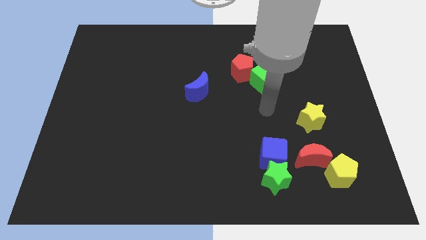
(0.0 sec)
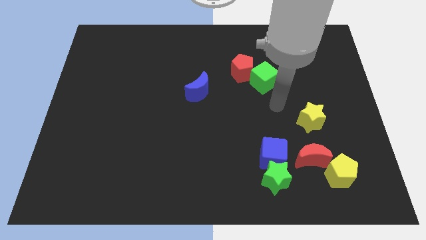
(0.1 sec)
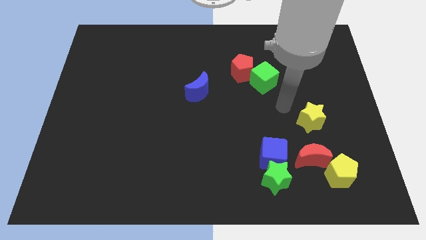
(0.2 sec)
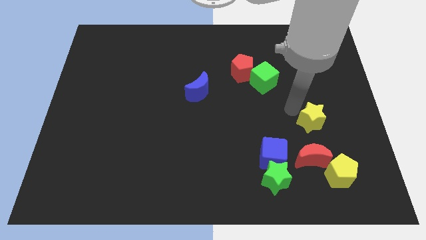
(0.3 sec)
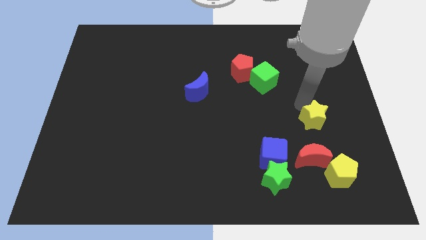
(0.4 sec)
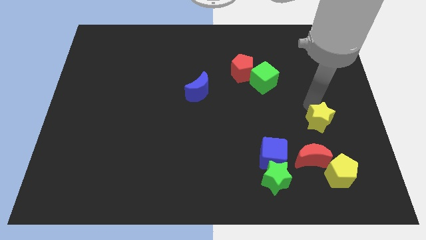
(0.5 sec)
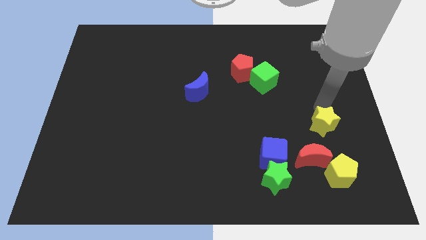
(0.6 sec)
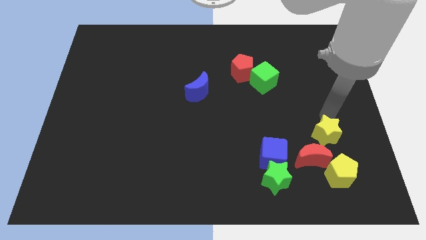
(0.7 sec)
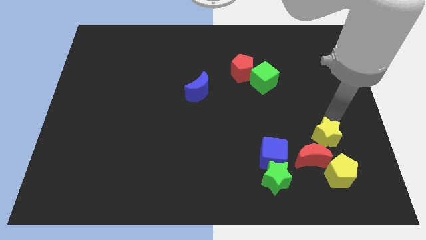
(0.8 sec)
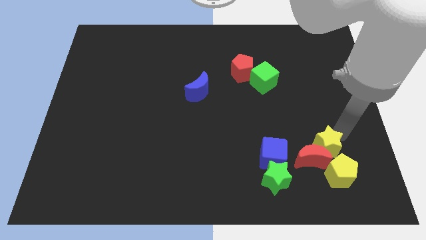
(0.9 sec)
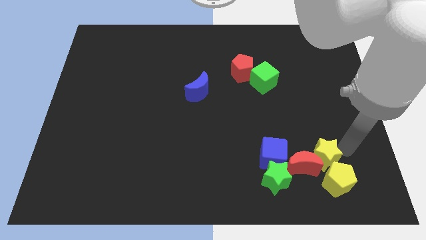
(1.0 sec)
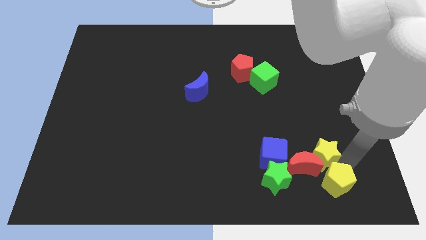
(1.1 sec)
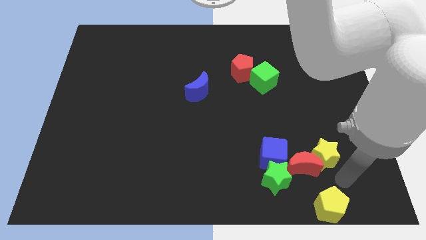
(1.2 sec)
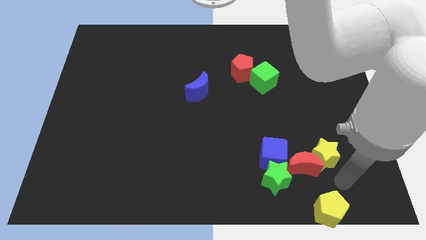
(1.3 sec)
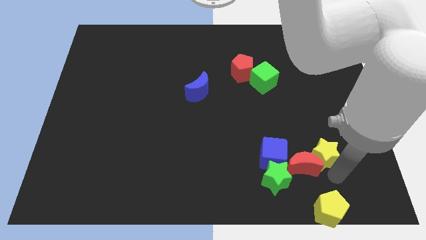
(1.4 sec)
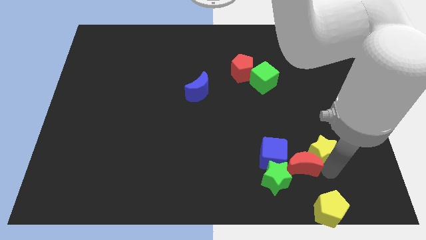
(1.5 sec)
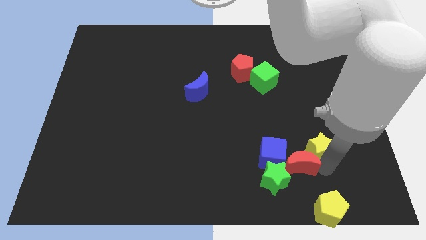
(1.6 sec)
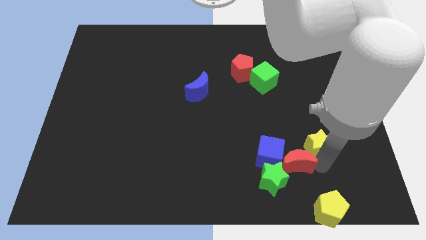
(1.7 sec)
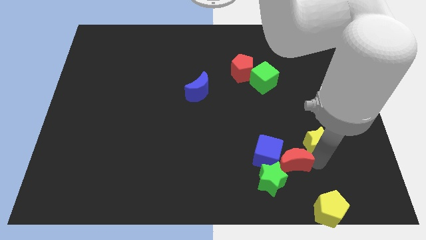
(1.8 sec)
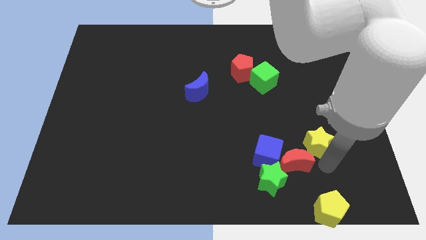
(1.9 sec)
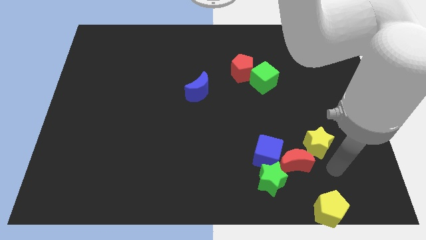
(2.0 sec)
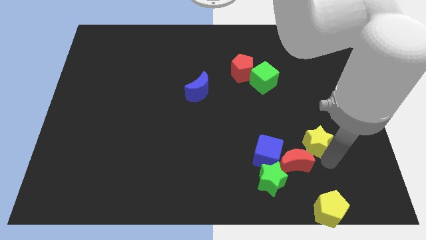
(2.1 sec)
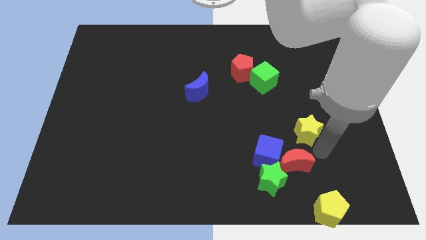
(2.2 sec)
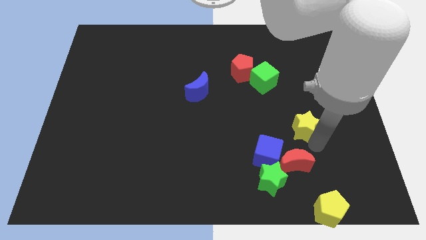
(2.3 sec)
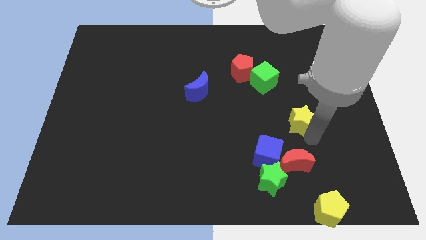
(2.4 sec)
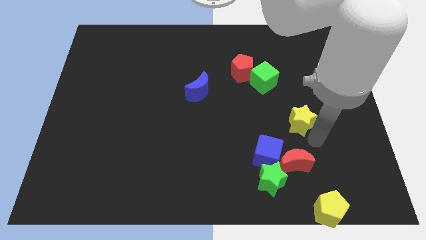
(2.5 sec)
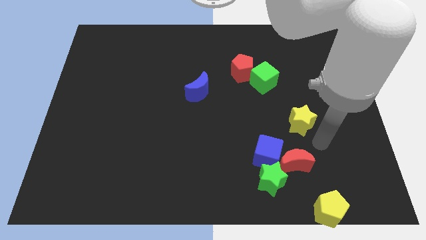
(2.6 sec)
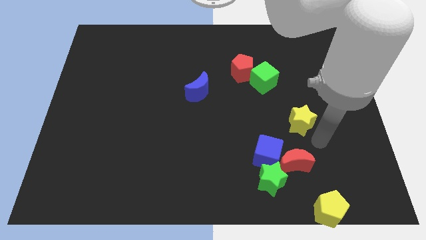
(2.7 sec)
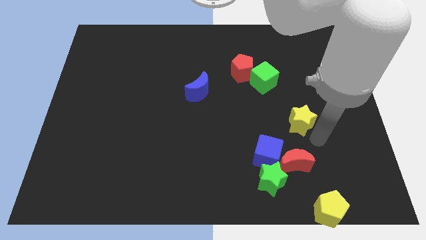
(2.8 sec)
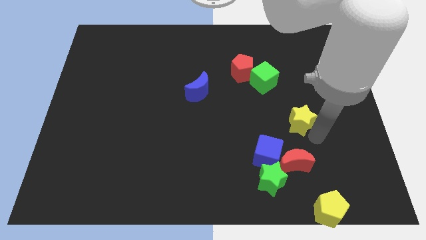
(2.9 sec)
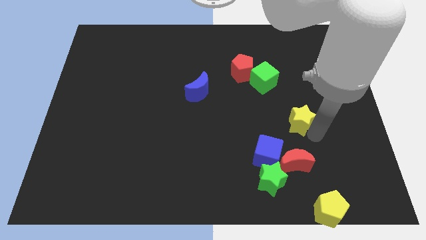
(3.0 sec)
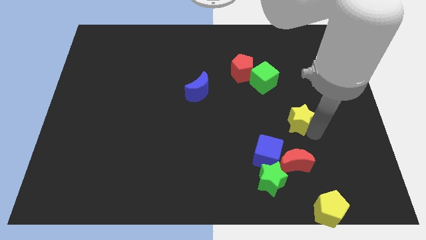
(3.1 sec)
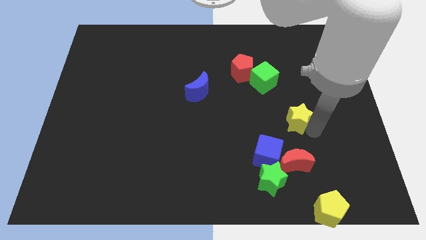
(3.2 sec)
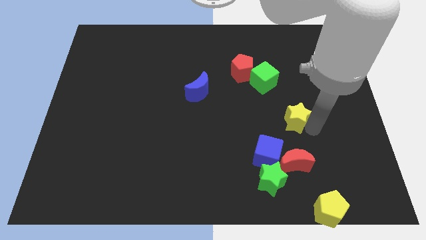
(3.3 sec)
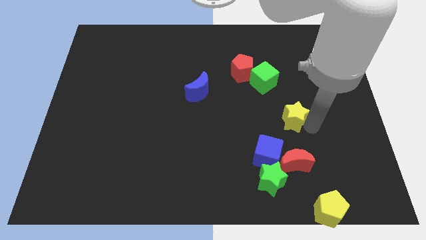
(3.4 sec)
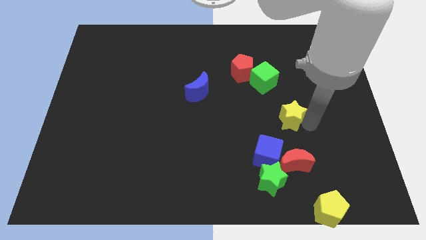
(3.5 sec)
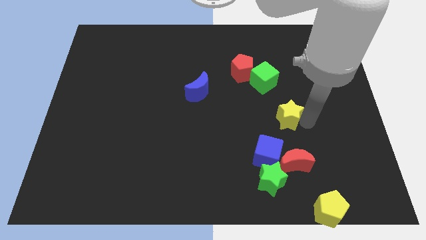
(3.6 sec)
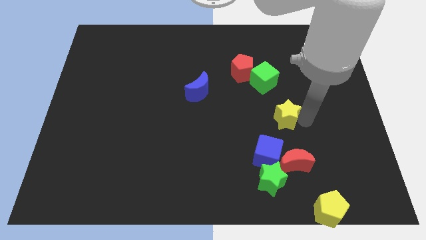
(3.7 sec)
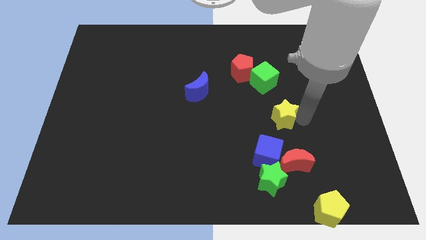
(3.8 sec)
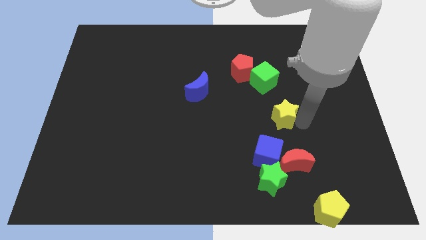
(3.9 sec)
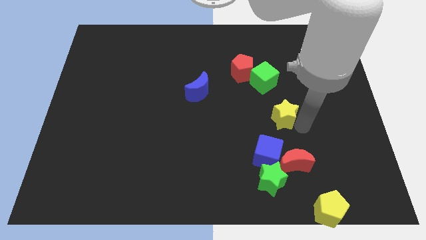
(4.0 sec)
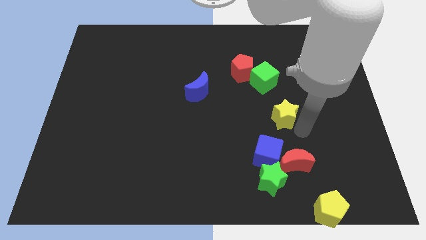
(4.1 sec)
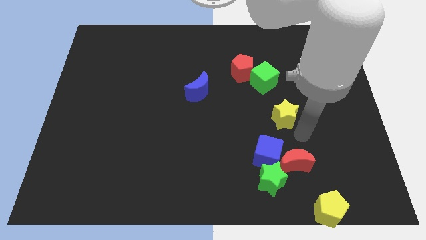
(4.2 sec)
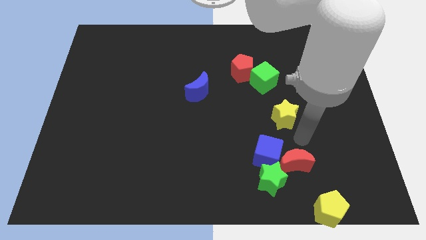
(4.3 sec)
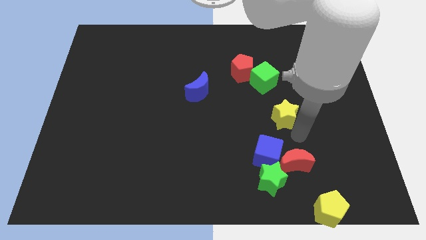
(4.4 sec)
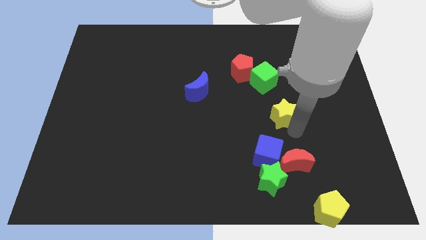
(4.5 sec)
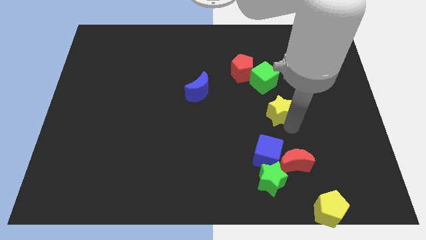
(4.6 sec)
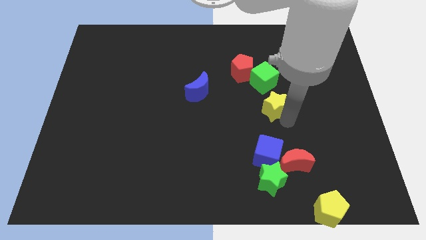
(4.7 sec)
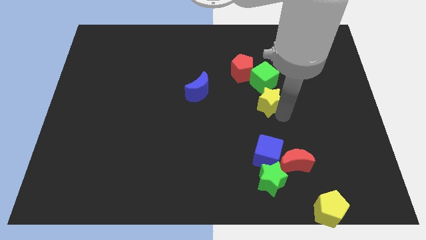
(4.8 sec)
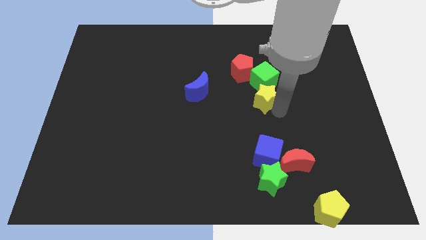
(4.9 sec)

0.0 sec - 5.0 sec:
put the yellow star to the middle of the board

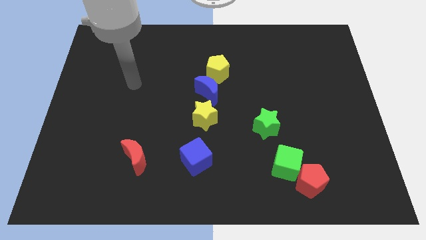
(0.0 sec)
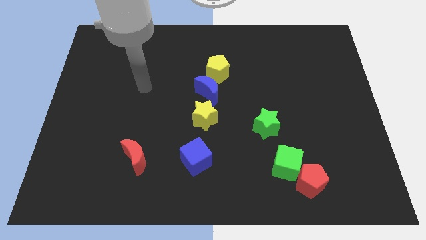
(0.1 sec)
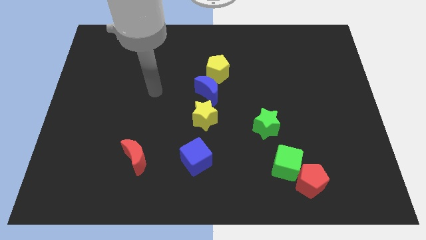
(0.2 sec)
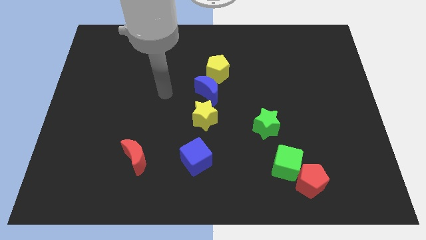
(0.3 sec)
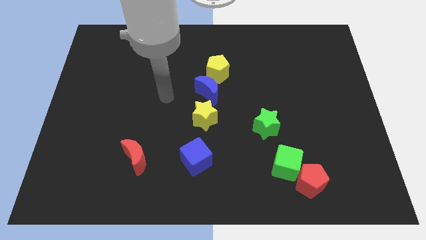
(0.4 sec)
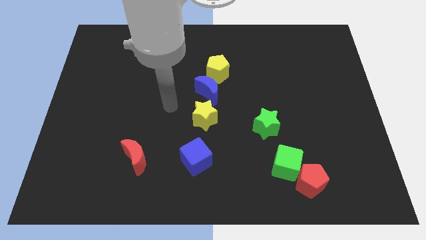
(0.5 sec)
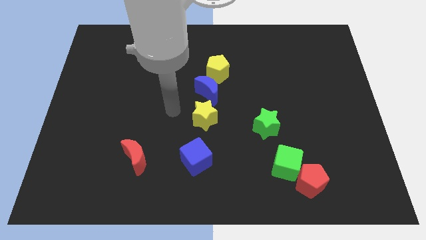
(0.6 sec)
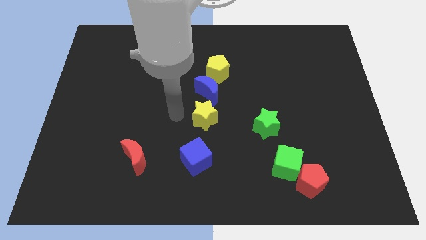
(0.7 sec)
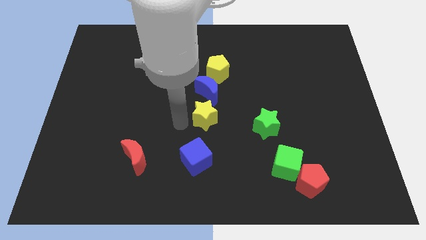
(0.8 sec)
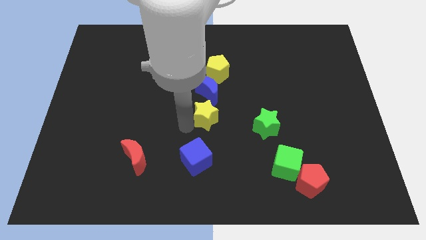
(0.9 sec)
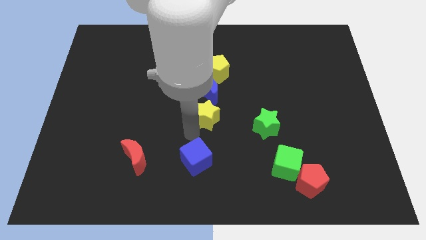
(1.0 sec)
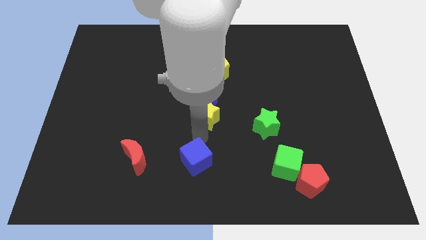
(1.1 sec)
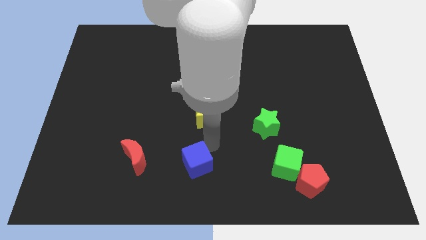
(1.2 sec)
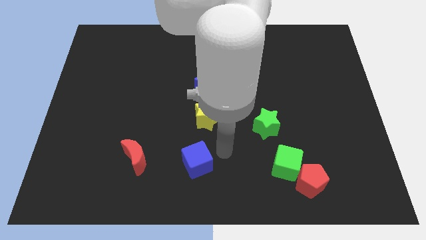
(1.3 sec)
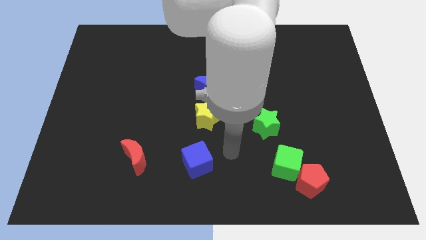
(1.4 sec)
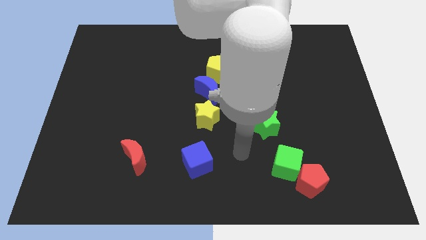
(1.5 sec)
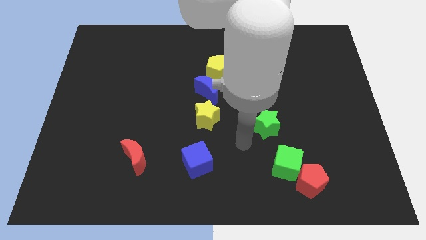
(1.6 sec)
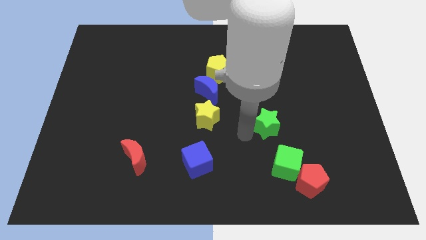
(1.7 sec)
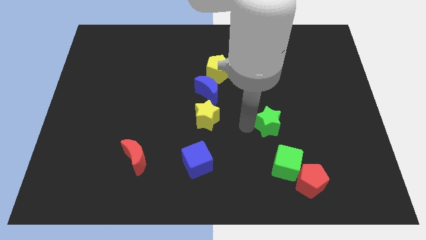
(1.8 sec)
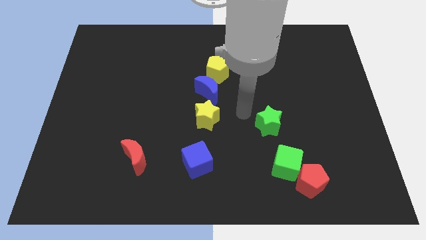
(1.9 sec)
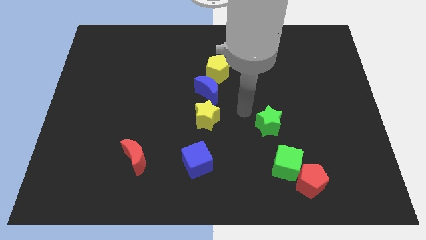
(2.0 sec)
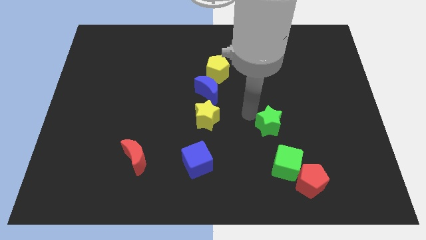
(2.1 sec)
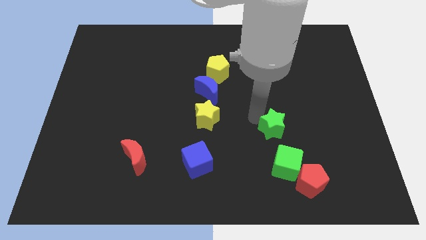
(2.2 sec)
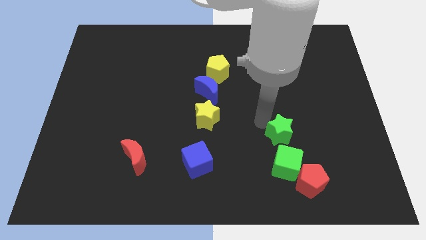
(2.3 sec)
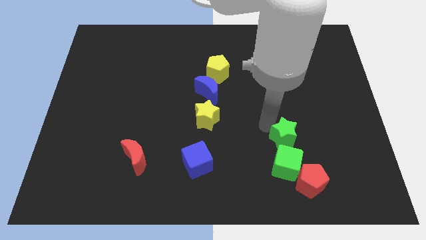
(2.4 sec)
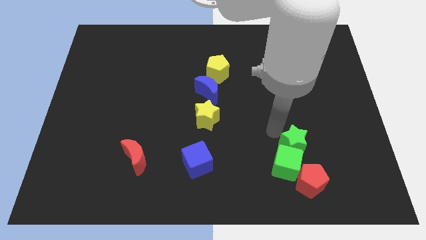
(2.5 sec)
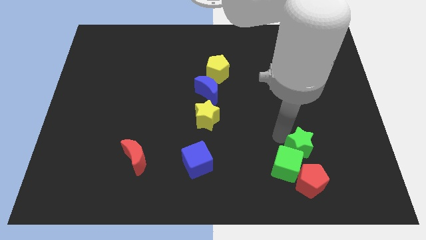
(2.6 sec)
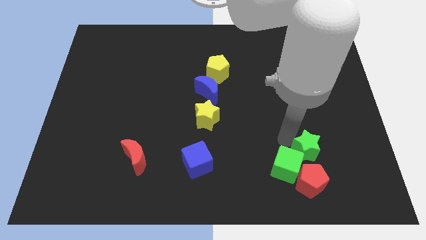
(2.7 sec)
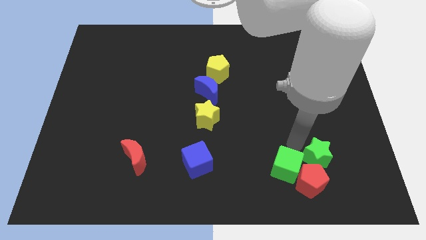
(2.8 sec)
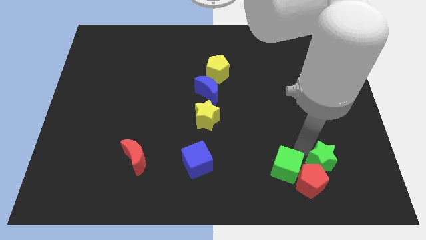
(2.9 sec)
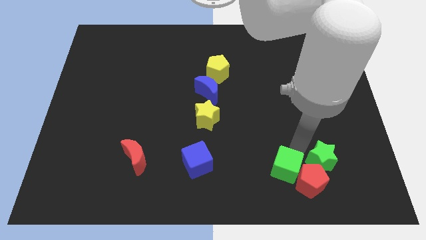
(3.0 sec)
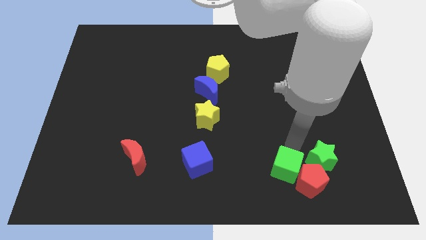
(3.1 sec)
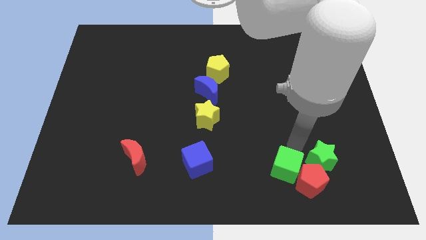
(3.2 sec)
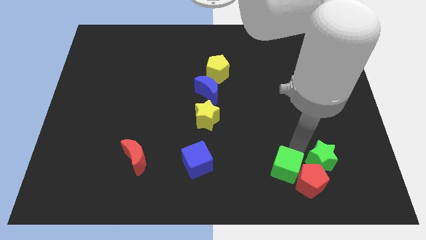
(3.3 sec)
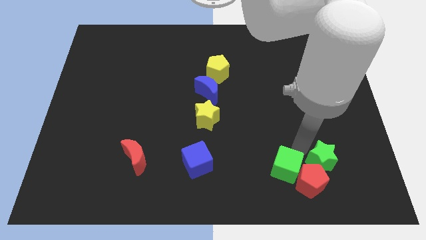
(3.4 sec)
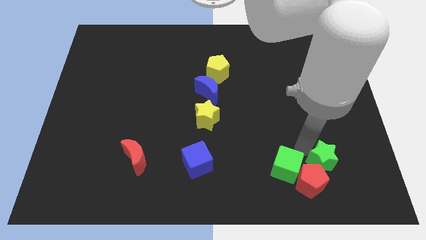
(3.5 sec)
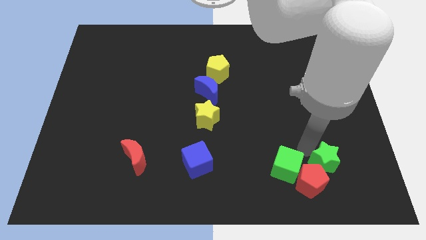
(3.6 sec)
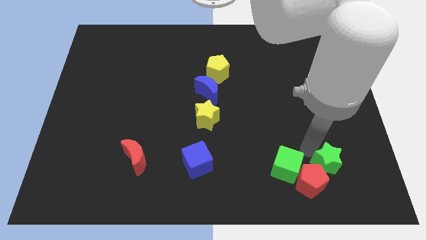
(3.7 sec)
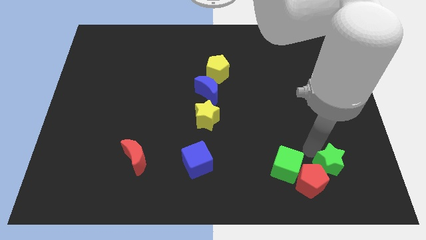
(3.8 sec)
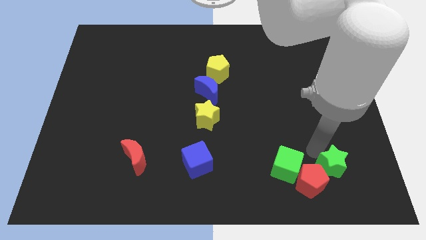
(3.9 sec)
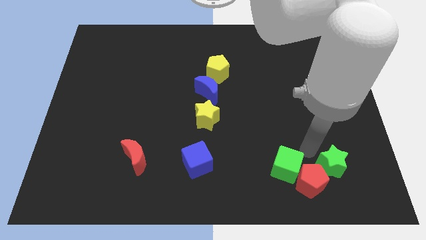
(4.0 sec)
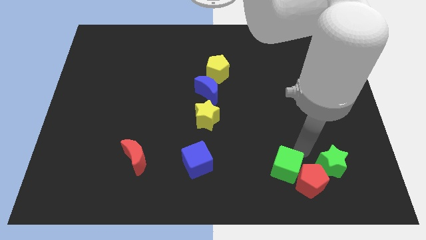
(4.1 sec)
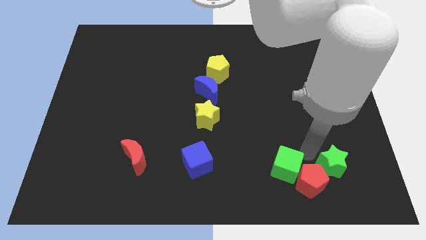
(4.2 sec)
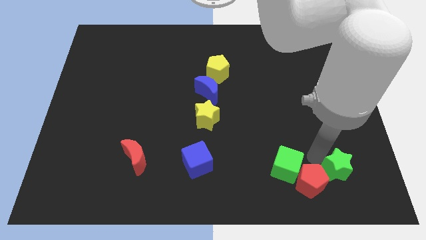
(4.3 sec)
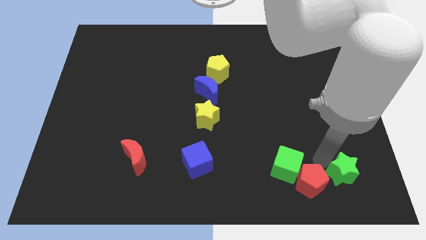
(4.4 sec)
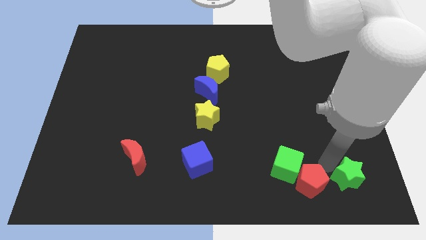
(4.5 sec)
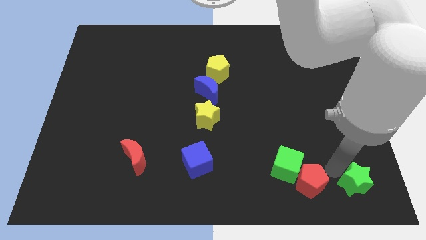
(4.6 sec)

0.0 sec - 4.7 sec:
put the green star to the bottom right
